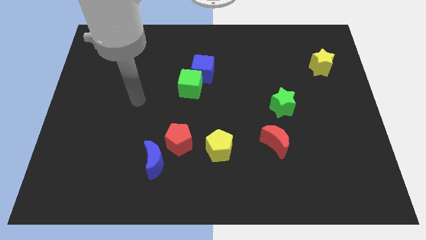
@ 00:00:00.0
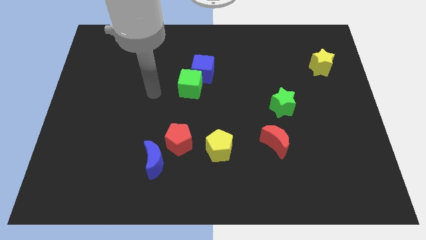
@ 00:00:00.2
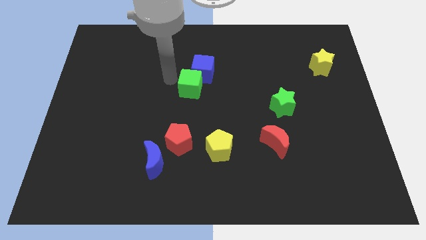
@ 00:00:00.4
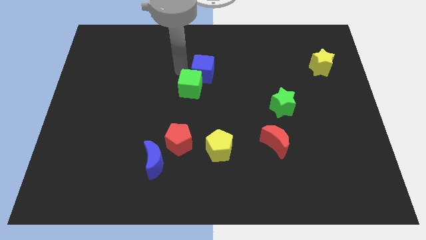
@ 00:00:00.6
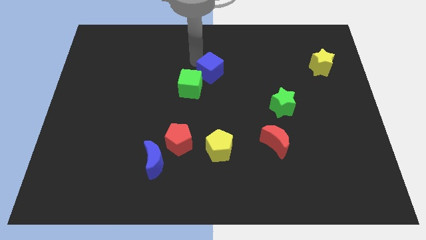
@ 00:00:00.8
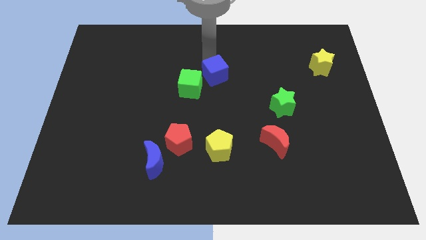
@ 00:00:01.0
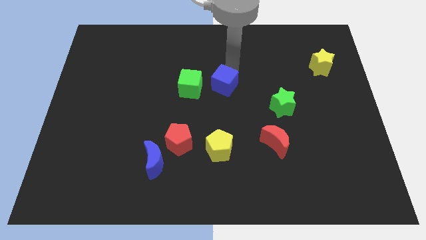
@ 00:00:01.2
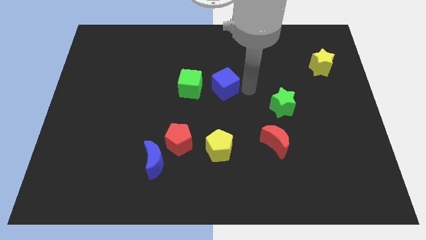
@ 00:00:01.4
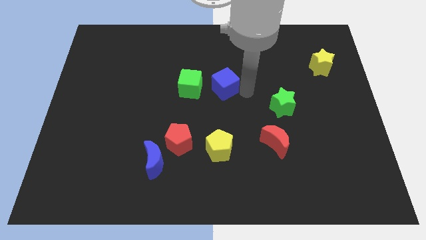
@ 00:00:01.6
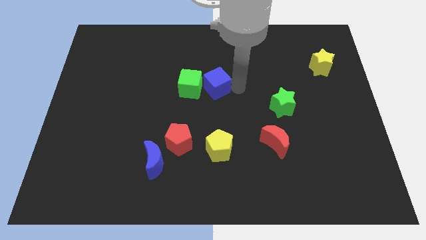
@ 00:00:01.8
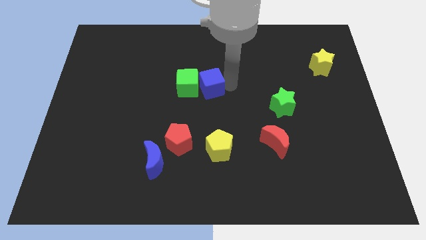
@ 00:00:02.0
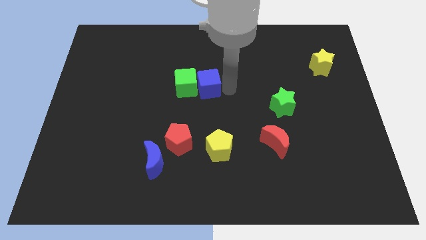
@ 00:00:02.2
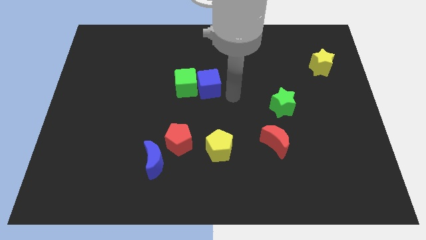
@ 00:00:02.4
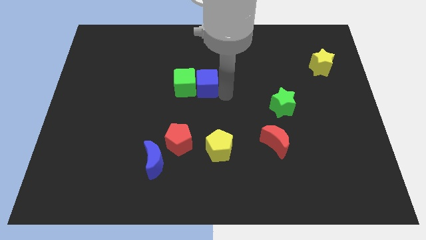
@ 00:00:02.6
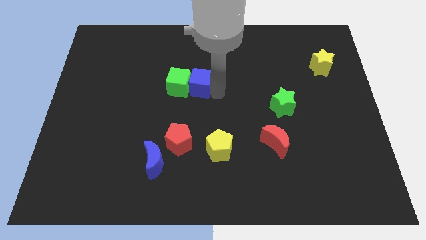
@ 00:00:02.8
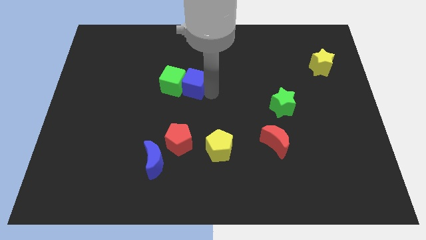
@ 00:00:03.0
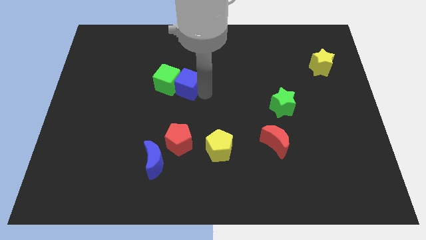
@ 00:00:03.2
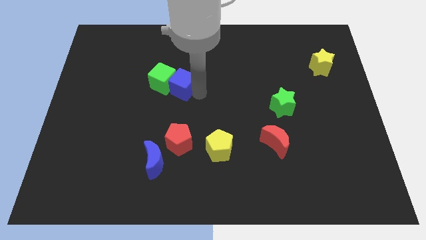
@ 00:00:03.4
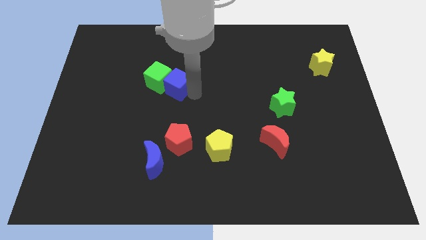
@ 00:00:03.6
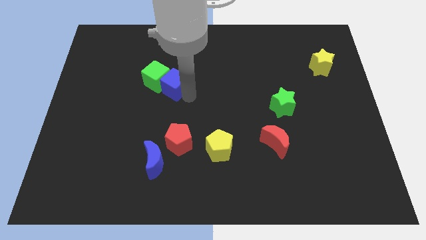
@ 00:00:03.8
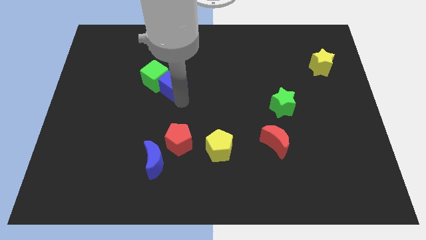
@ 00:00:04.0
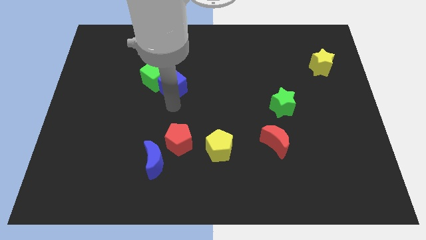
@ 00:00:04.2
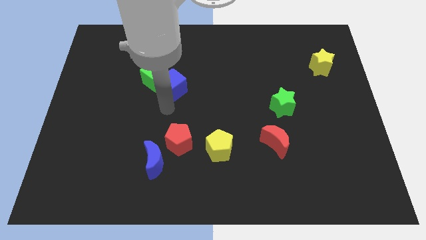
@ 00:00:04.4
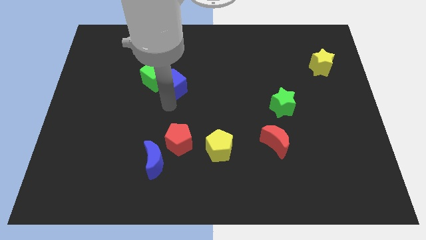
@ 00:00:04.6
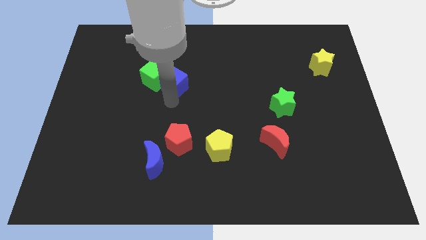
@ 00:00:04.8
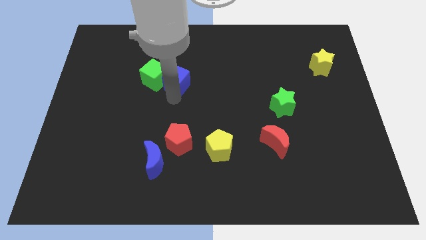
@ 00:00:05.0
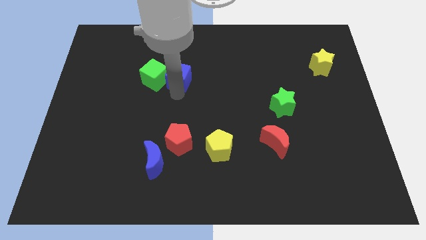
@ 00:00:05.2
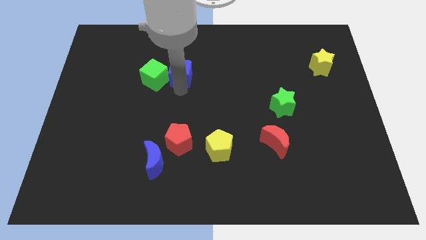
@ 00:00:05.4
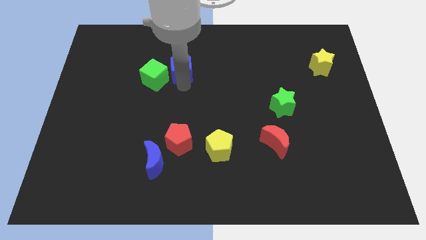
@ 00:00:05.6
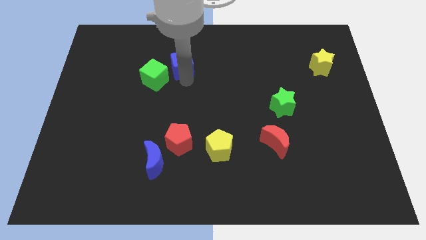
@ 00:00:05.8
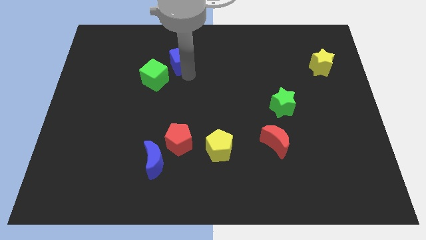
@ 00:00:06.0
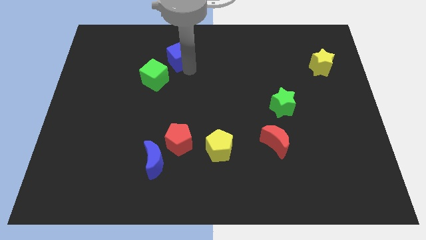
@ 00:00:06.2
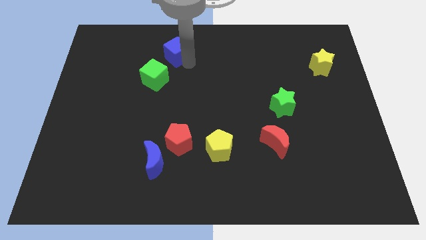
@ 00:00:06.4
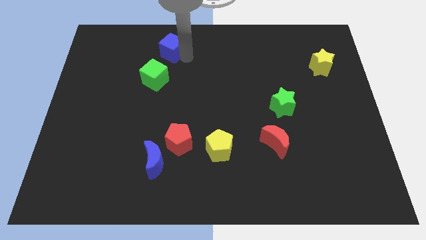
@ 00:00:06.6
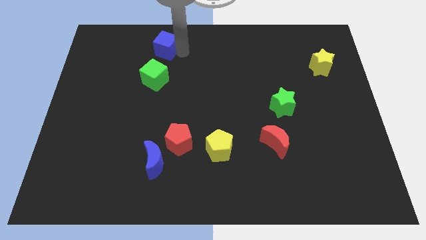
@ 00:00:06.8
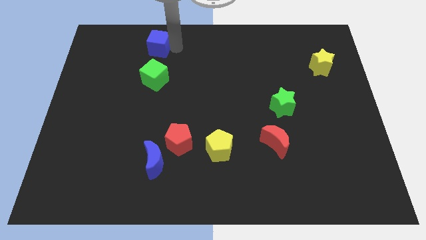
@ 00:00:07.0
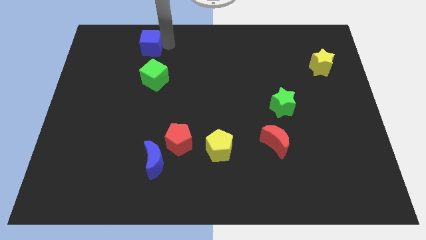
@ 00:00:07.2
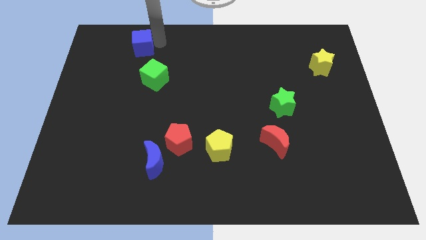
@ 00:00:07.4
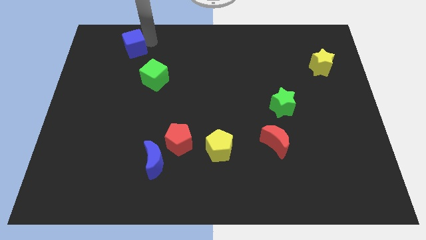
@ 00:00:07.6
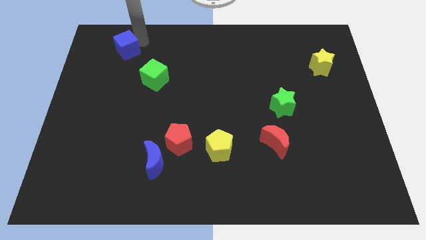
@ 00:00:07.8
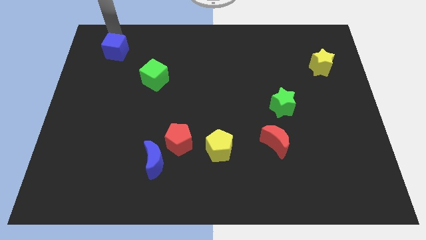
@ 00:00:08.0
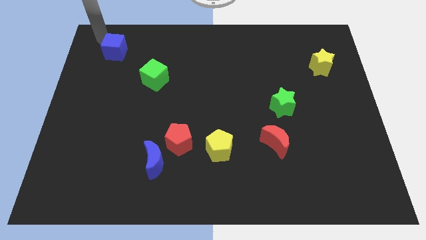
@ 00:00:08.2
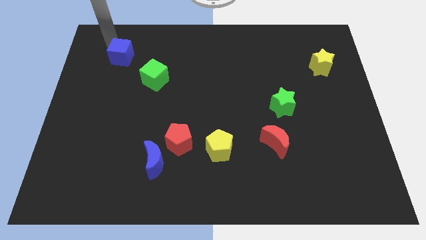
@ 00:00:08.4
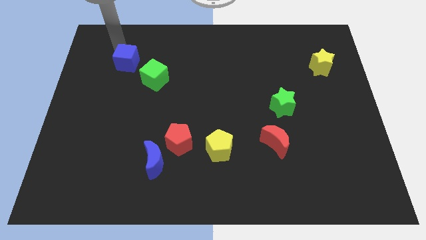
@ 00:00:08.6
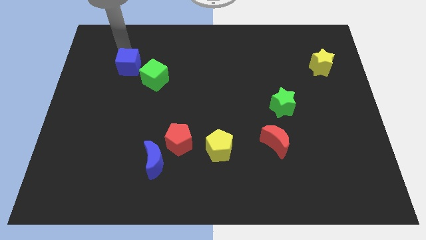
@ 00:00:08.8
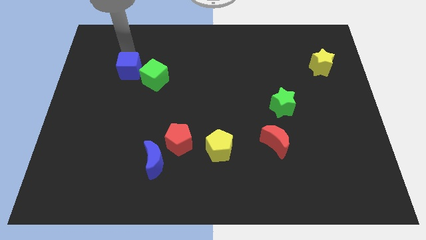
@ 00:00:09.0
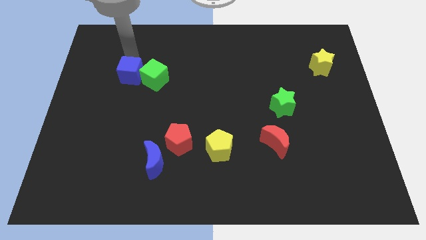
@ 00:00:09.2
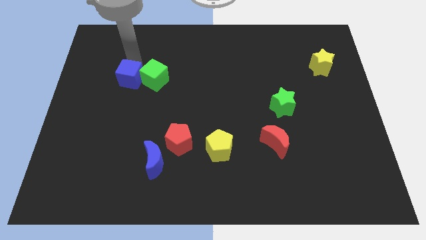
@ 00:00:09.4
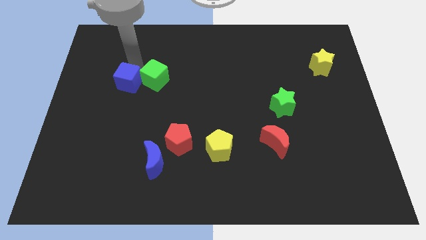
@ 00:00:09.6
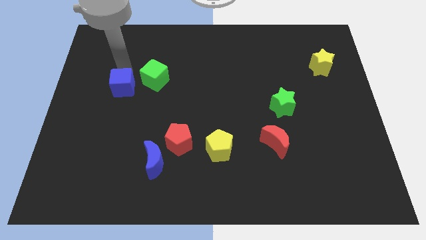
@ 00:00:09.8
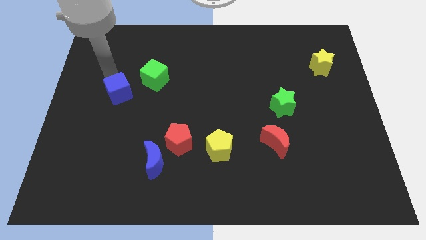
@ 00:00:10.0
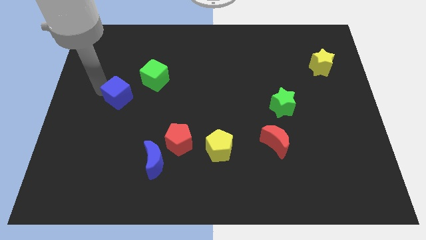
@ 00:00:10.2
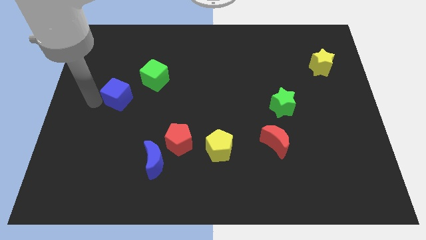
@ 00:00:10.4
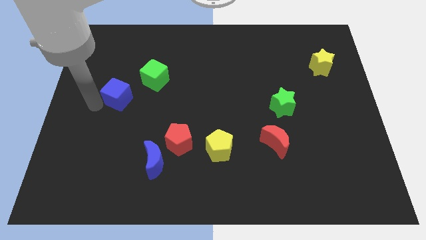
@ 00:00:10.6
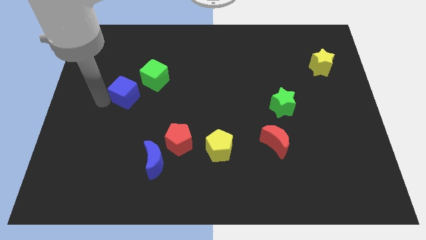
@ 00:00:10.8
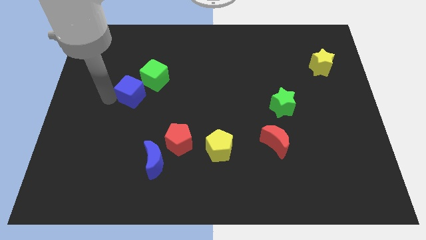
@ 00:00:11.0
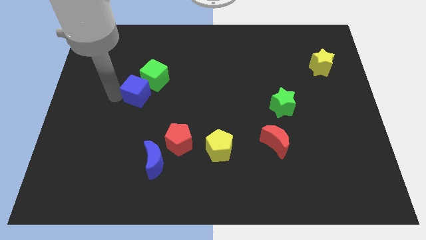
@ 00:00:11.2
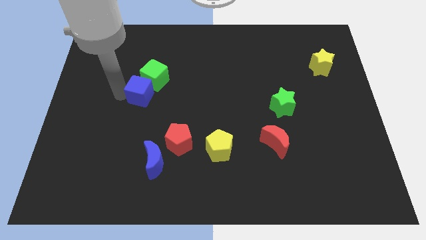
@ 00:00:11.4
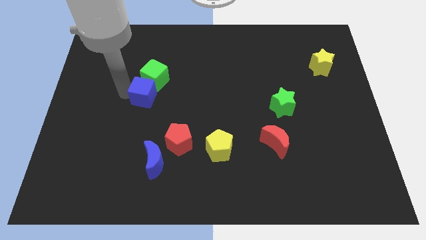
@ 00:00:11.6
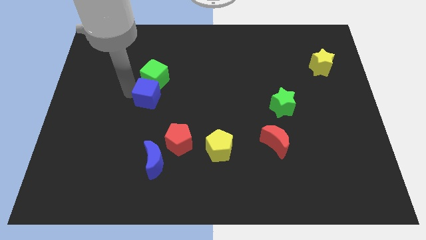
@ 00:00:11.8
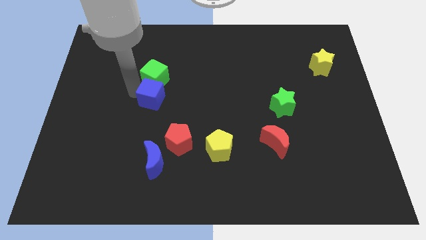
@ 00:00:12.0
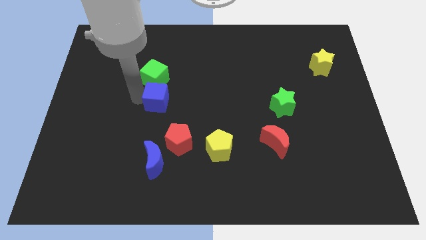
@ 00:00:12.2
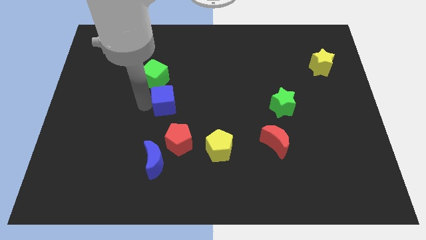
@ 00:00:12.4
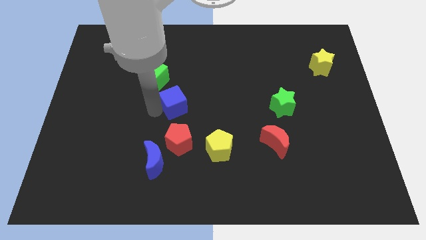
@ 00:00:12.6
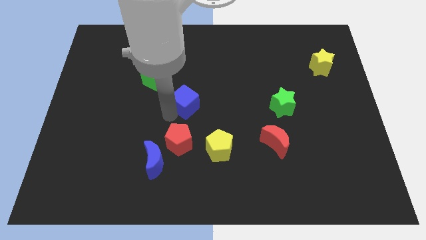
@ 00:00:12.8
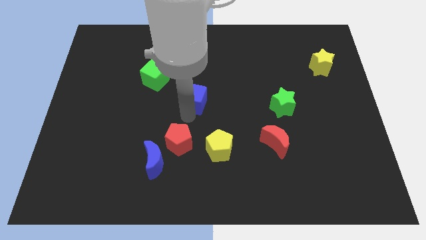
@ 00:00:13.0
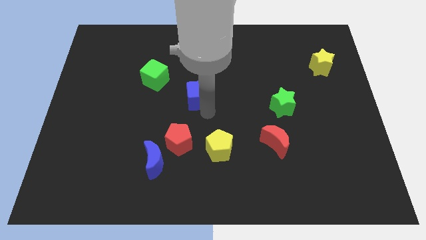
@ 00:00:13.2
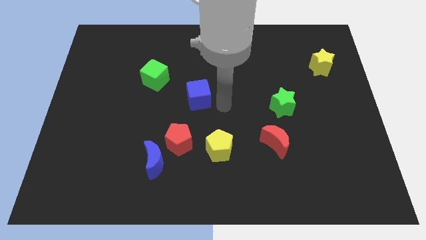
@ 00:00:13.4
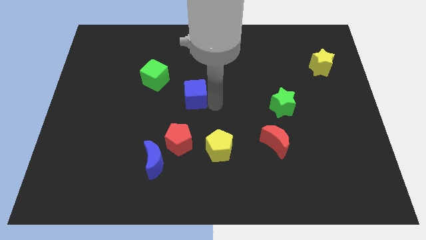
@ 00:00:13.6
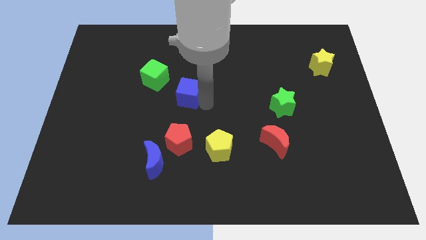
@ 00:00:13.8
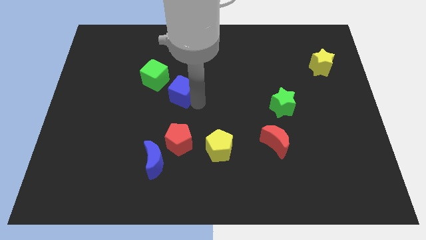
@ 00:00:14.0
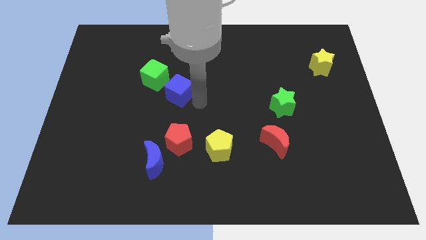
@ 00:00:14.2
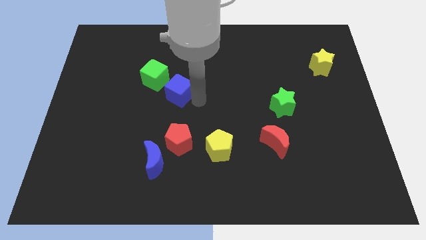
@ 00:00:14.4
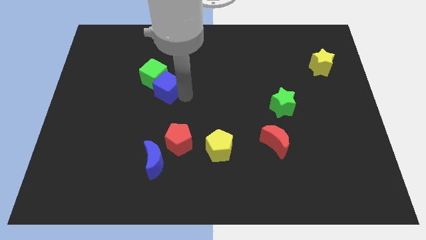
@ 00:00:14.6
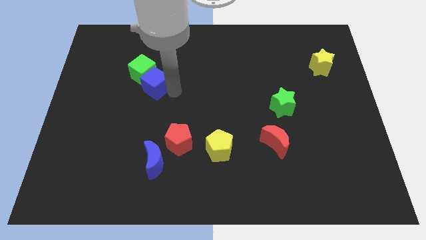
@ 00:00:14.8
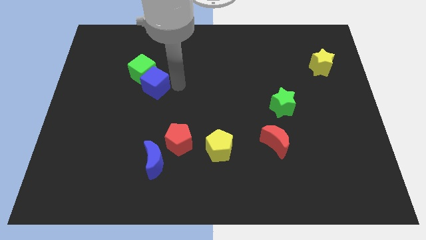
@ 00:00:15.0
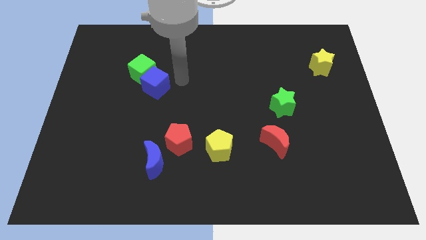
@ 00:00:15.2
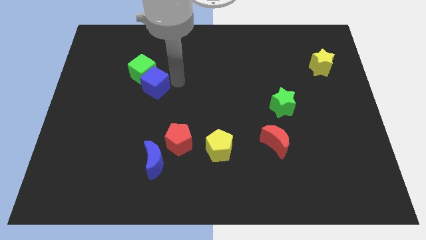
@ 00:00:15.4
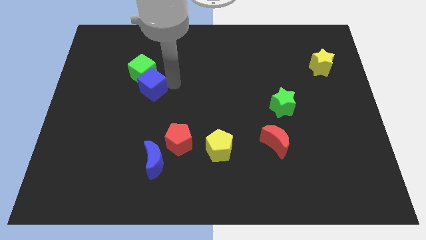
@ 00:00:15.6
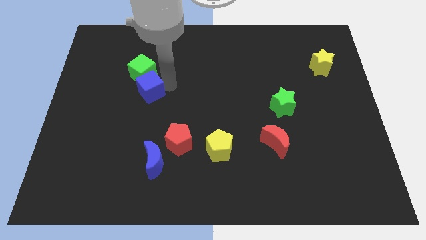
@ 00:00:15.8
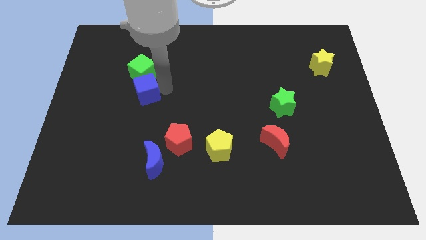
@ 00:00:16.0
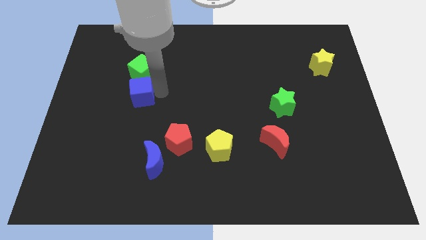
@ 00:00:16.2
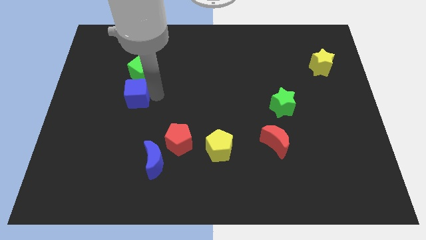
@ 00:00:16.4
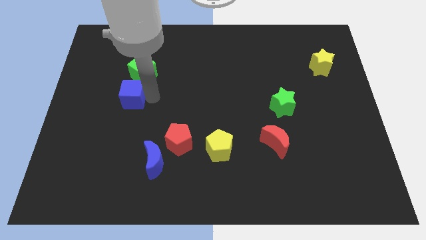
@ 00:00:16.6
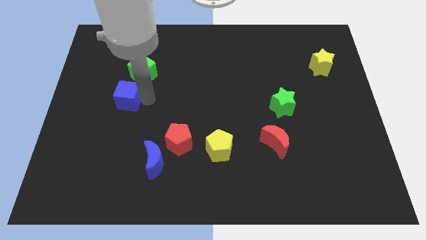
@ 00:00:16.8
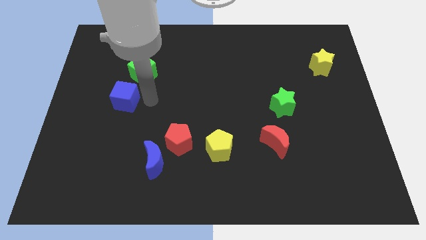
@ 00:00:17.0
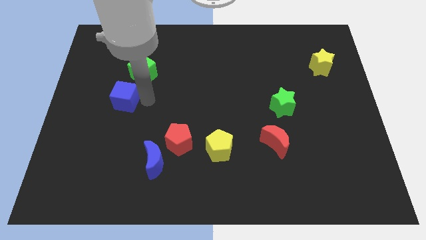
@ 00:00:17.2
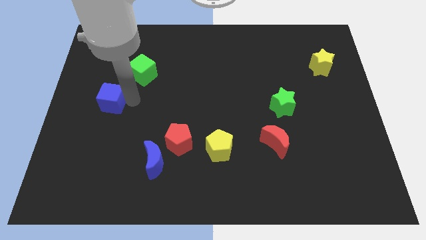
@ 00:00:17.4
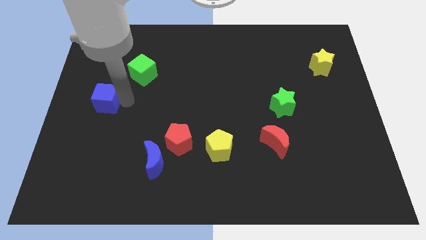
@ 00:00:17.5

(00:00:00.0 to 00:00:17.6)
put the blue cube to the left side of the board
